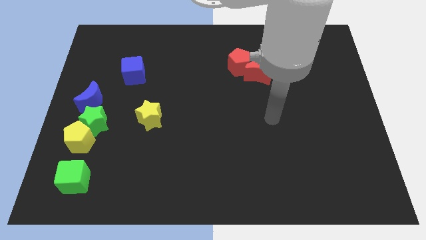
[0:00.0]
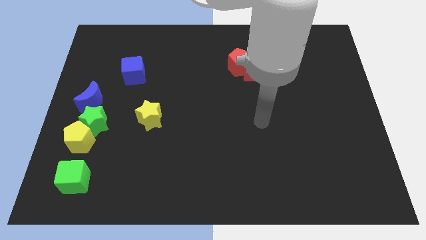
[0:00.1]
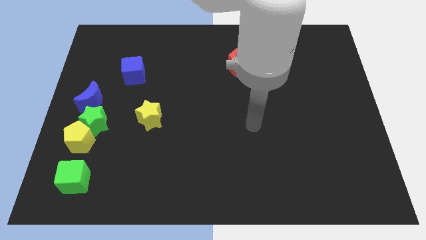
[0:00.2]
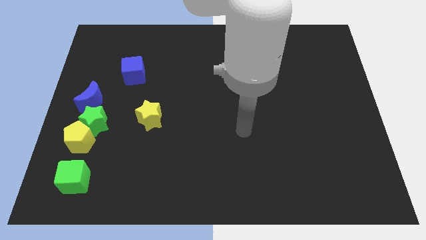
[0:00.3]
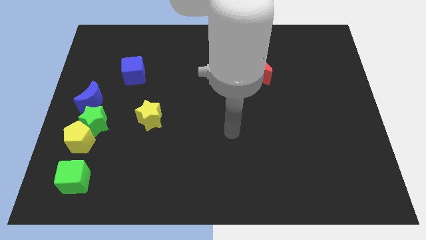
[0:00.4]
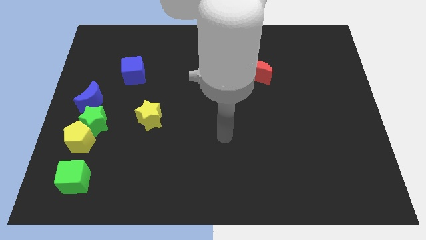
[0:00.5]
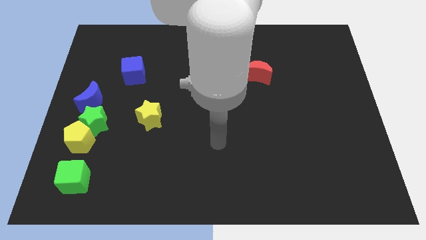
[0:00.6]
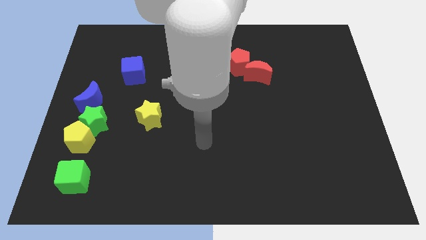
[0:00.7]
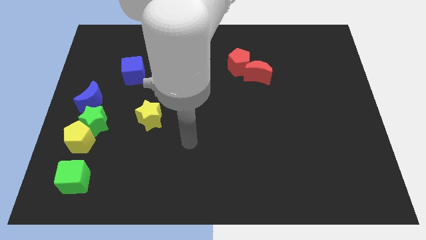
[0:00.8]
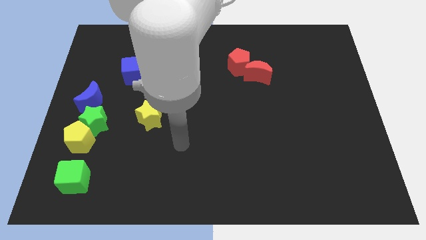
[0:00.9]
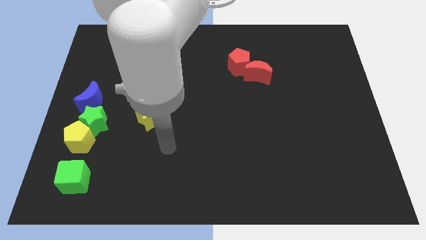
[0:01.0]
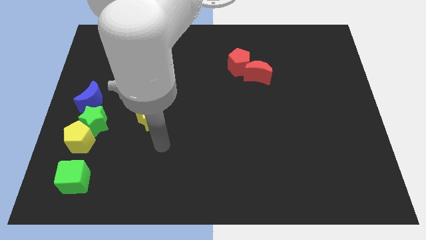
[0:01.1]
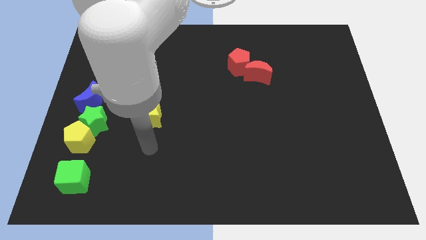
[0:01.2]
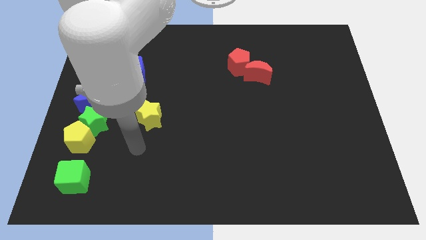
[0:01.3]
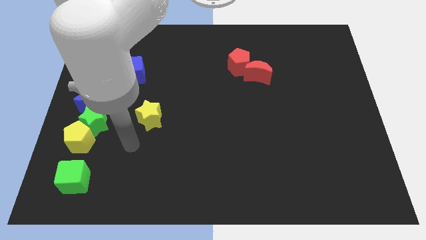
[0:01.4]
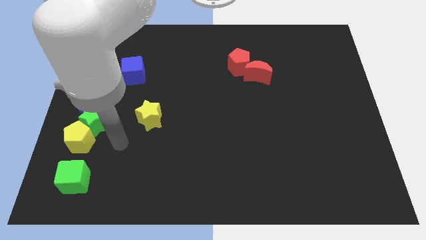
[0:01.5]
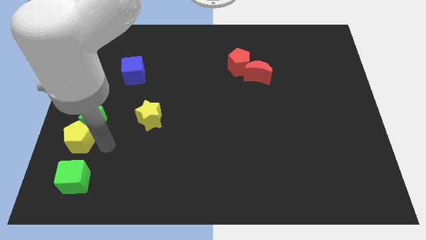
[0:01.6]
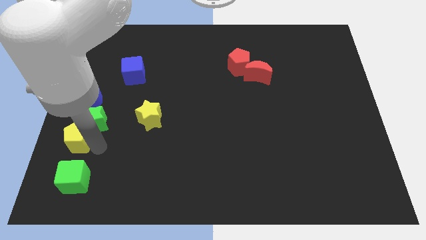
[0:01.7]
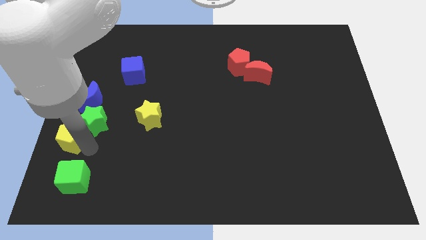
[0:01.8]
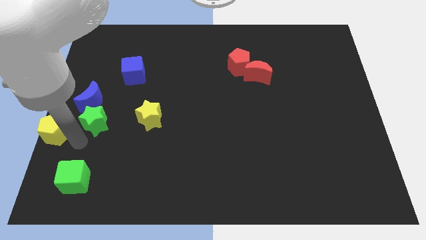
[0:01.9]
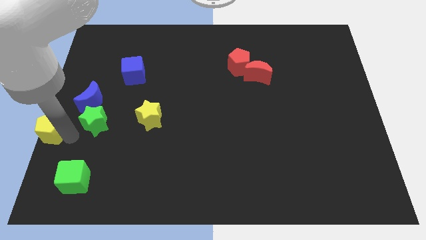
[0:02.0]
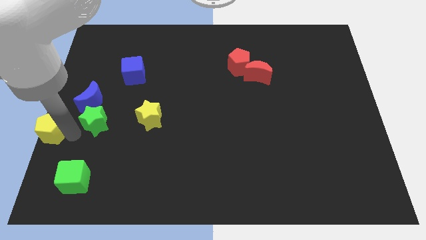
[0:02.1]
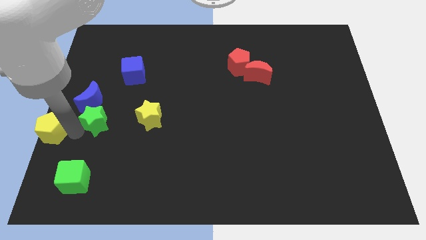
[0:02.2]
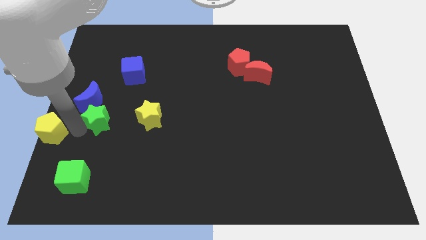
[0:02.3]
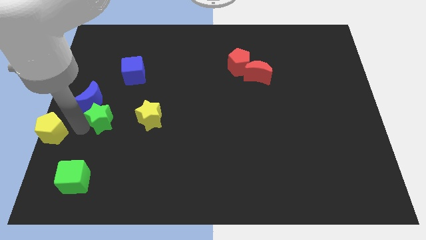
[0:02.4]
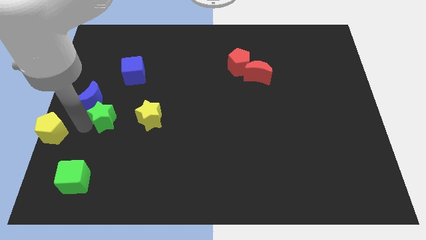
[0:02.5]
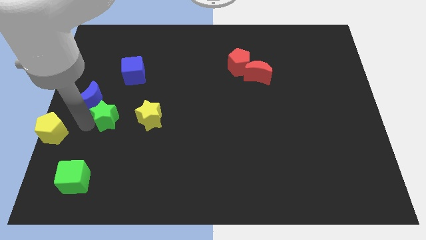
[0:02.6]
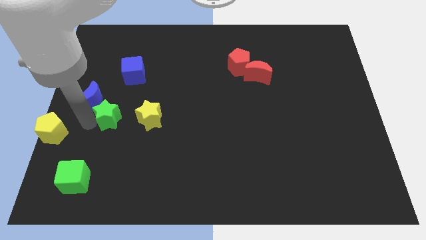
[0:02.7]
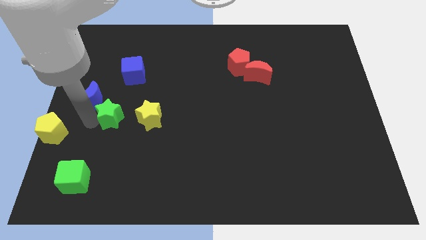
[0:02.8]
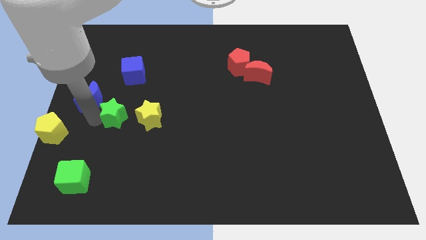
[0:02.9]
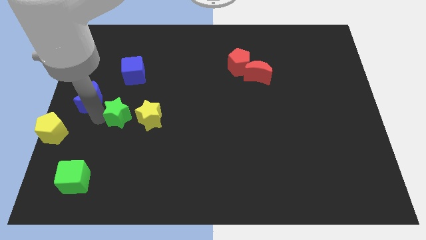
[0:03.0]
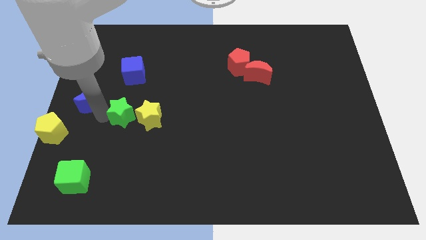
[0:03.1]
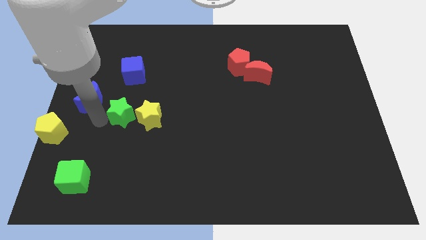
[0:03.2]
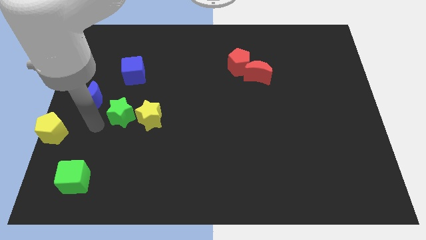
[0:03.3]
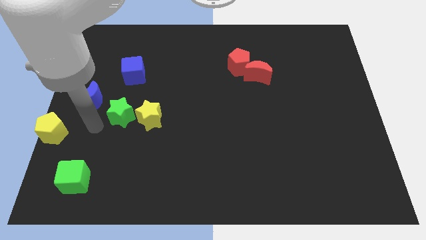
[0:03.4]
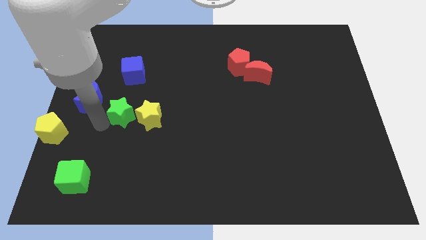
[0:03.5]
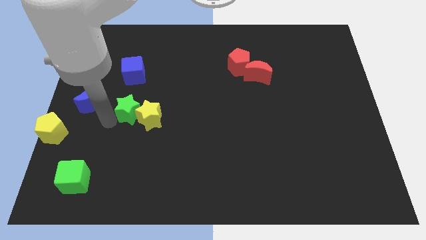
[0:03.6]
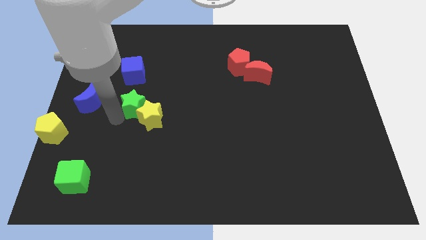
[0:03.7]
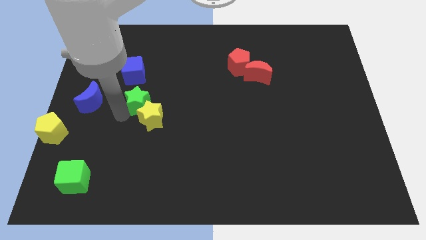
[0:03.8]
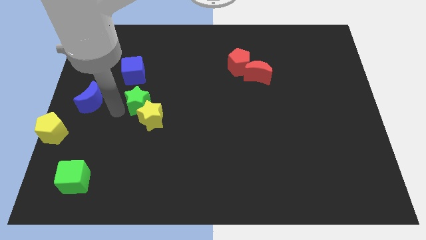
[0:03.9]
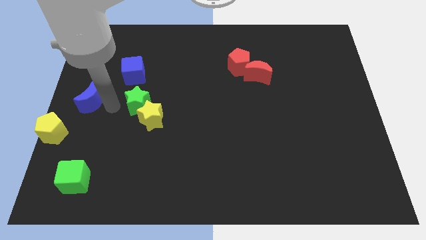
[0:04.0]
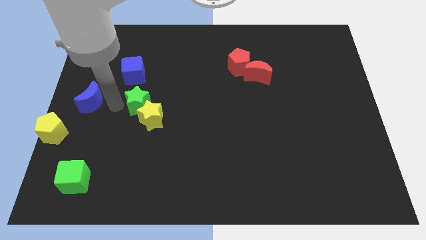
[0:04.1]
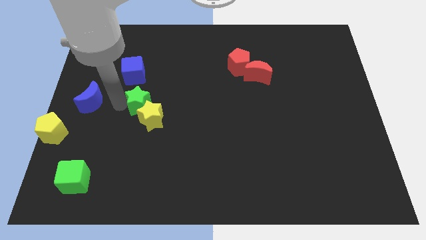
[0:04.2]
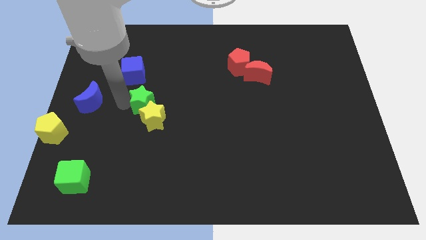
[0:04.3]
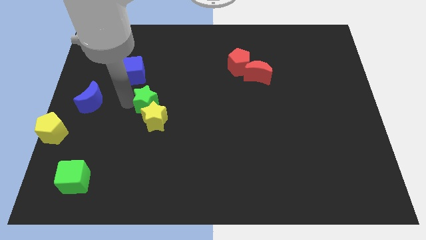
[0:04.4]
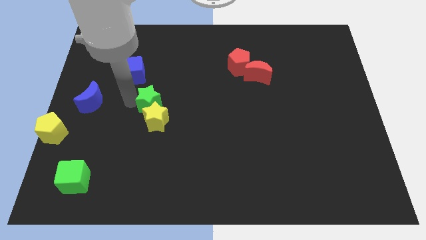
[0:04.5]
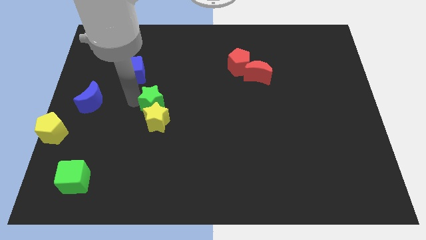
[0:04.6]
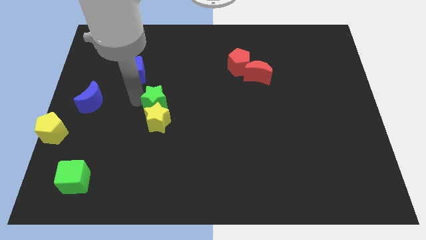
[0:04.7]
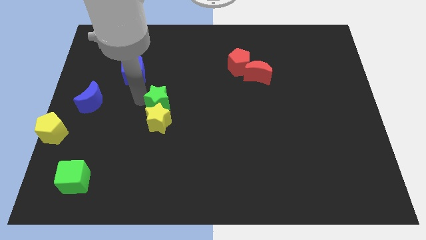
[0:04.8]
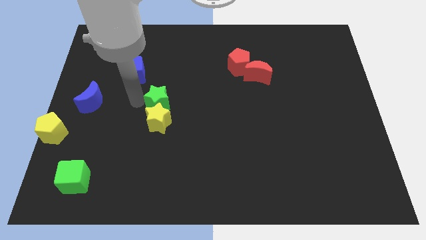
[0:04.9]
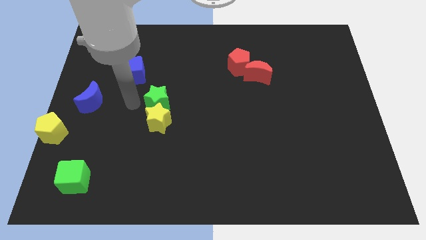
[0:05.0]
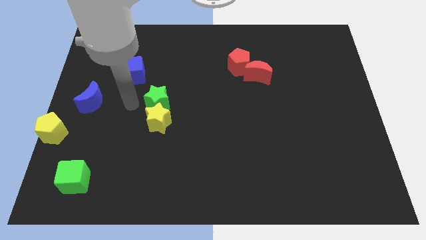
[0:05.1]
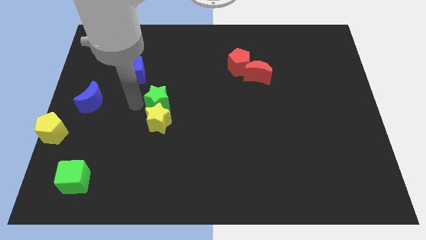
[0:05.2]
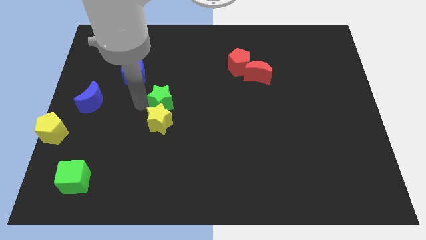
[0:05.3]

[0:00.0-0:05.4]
put the green star to the center

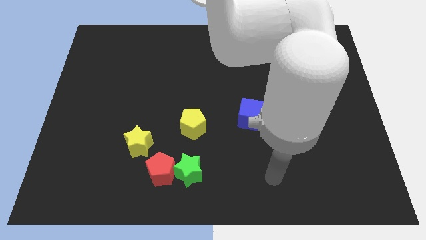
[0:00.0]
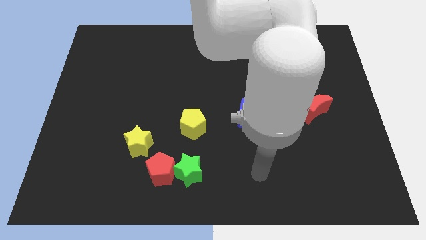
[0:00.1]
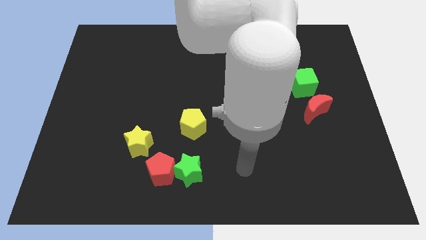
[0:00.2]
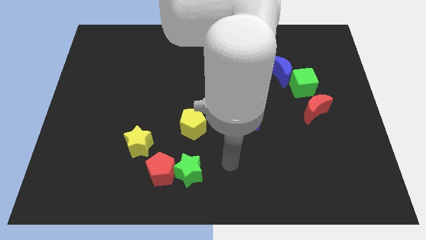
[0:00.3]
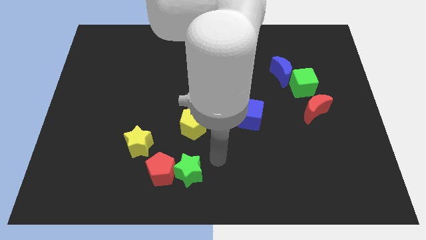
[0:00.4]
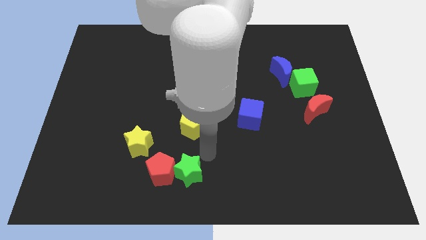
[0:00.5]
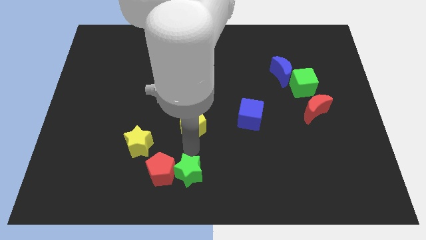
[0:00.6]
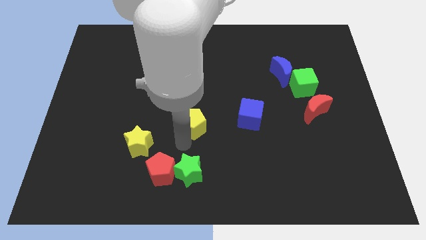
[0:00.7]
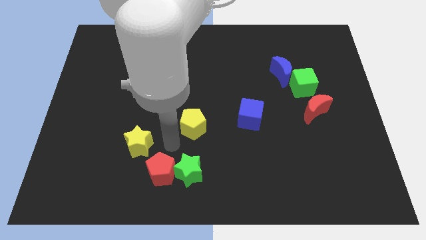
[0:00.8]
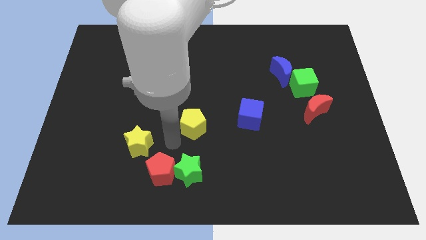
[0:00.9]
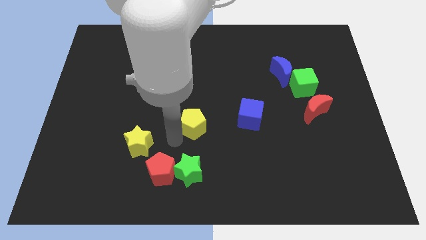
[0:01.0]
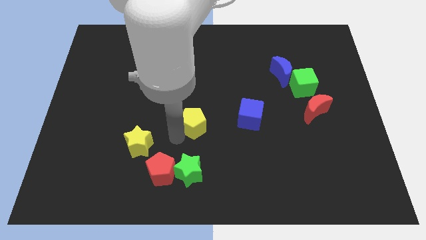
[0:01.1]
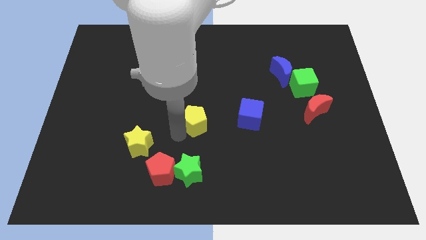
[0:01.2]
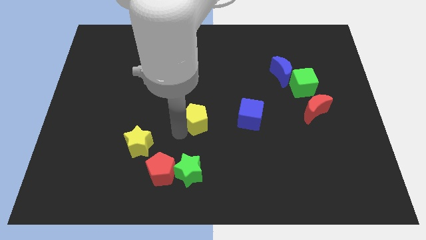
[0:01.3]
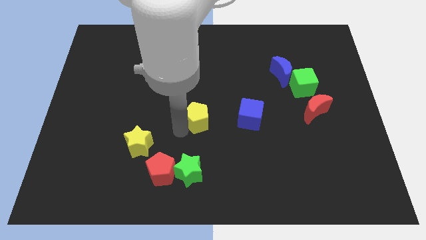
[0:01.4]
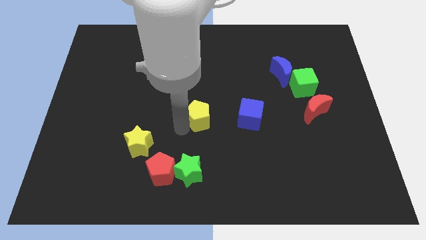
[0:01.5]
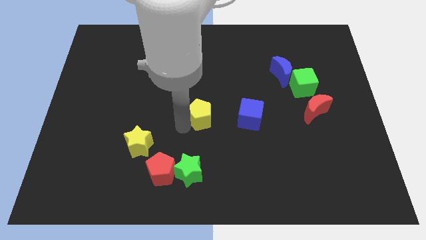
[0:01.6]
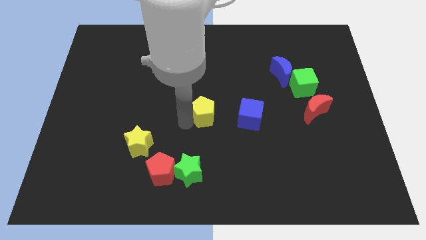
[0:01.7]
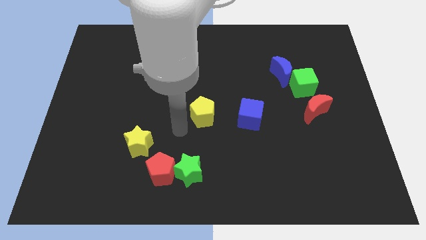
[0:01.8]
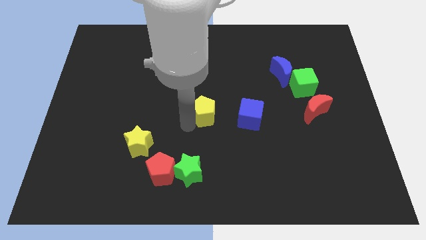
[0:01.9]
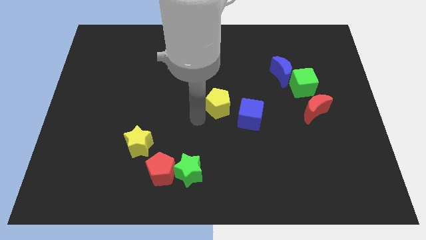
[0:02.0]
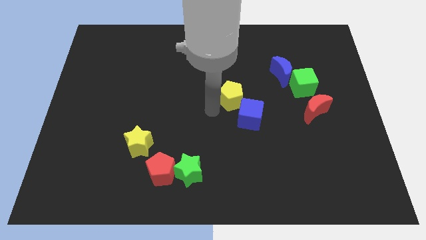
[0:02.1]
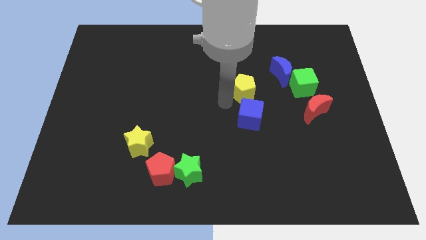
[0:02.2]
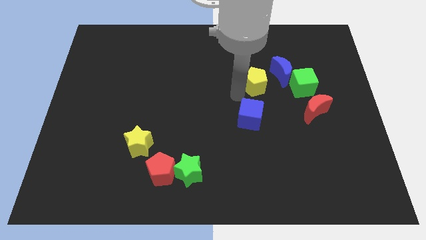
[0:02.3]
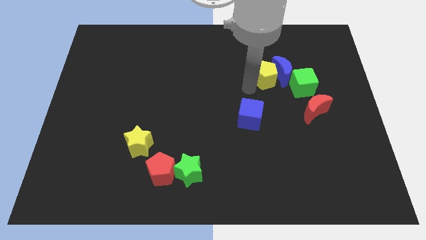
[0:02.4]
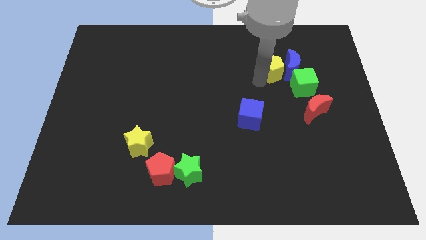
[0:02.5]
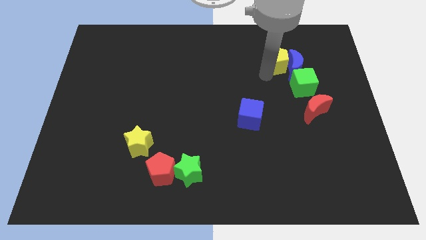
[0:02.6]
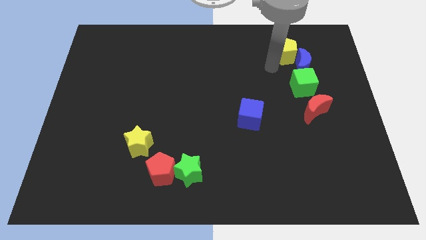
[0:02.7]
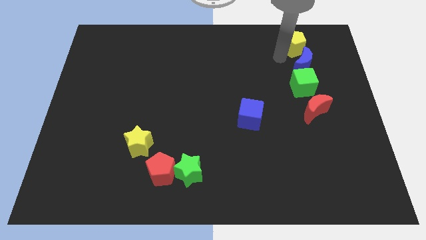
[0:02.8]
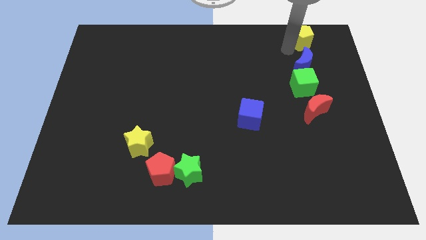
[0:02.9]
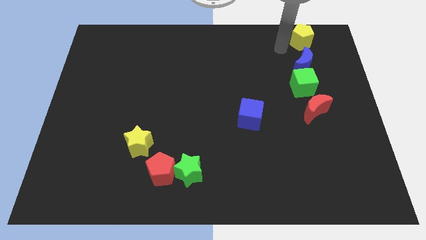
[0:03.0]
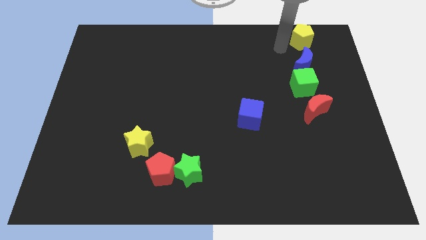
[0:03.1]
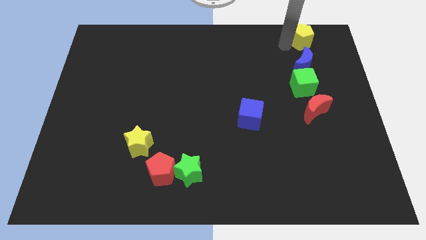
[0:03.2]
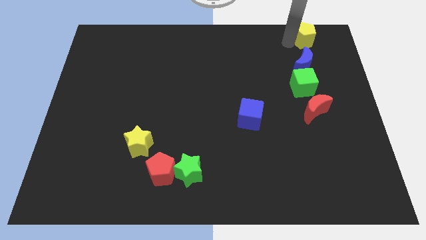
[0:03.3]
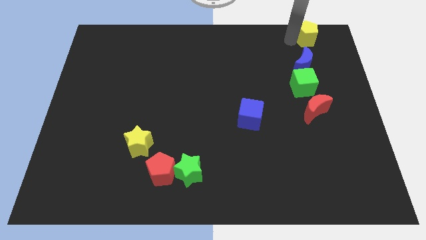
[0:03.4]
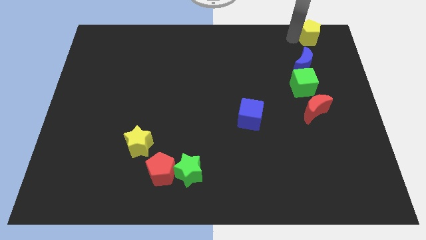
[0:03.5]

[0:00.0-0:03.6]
move the yellow pentagon to the top right
